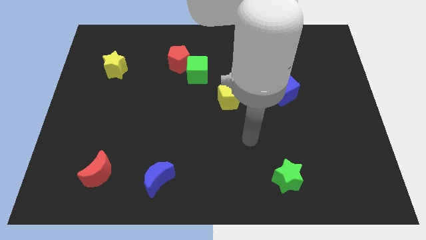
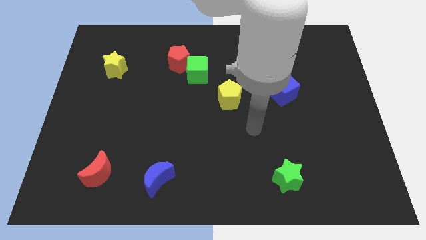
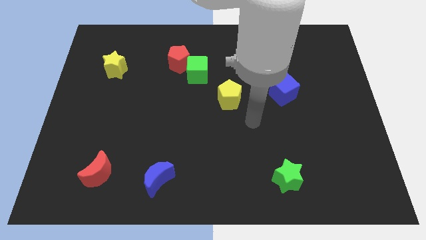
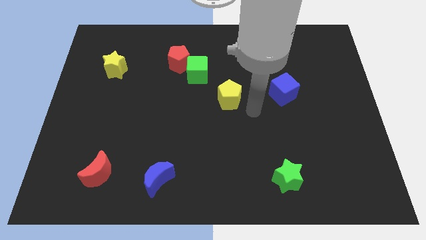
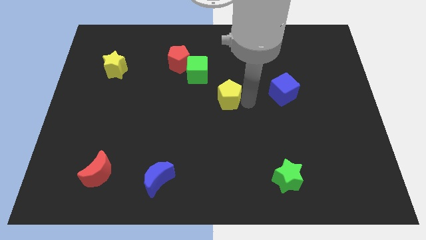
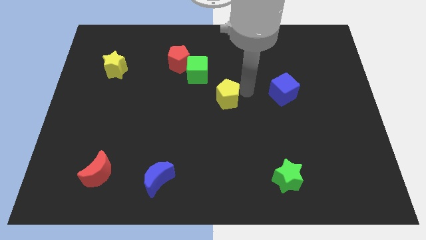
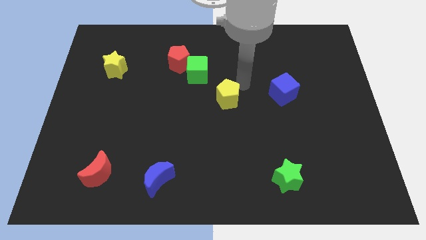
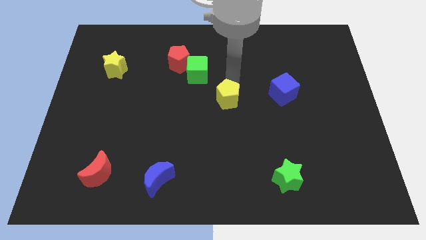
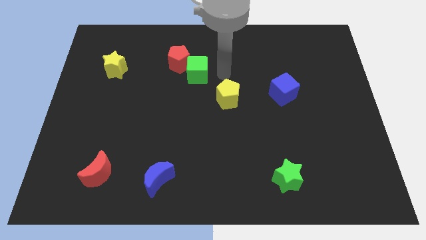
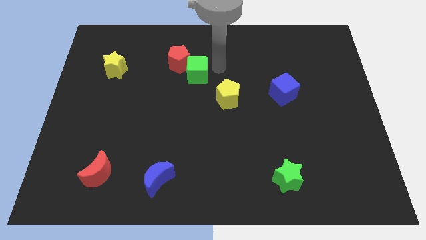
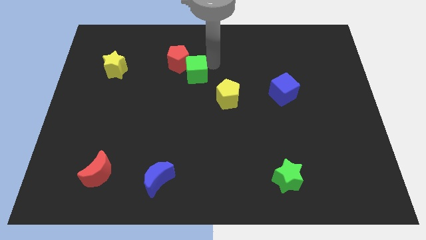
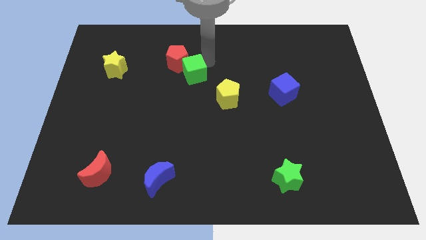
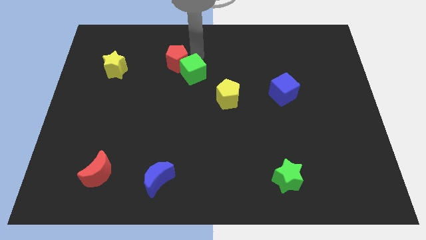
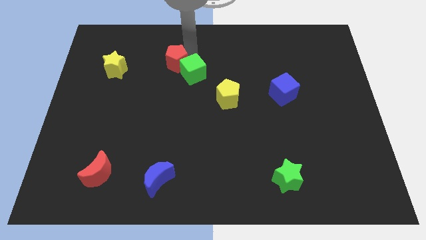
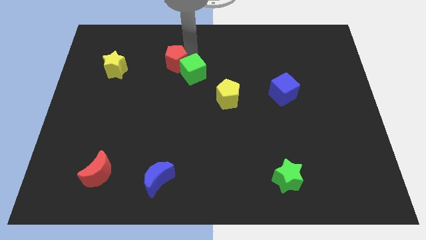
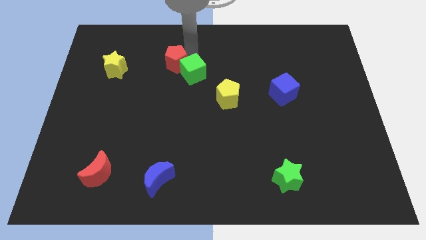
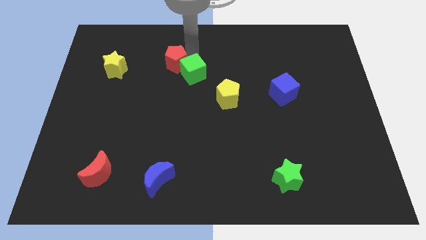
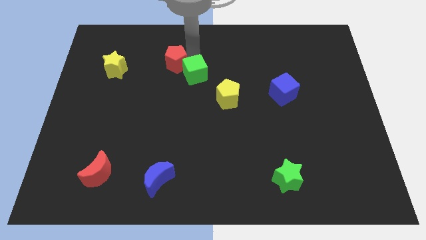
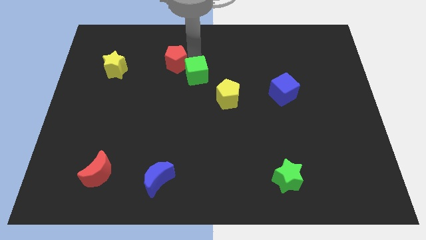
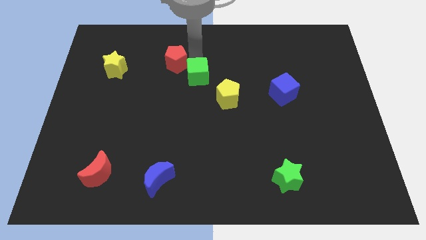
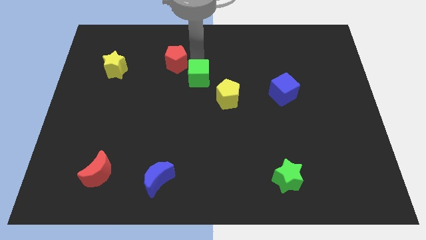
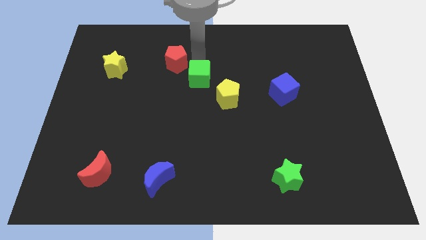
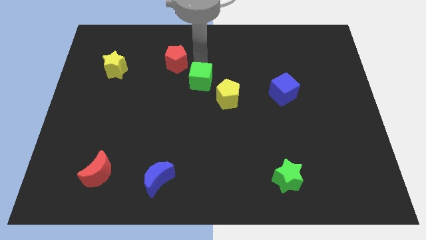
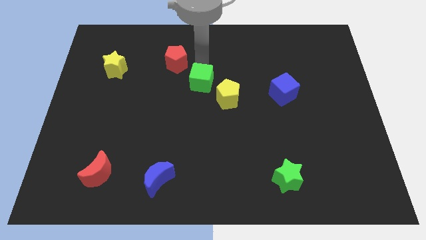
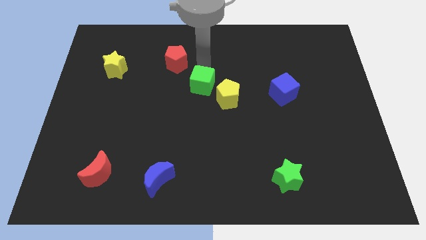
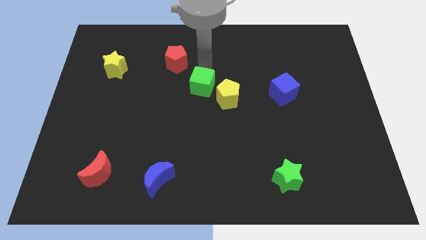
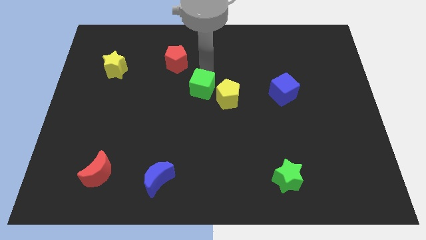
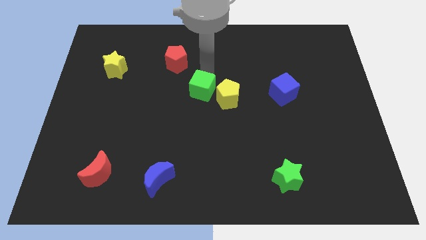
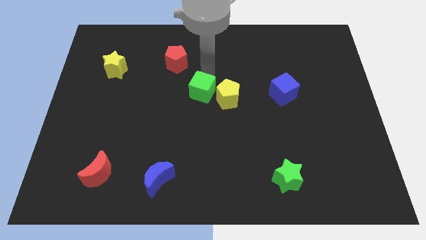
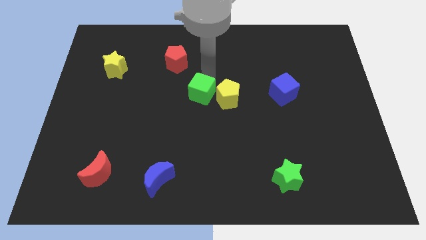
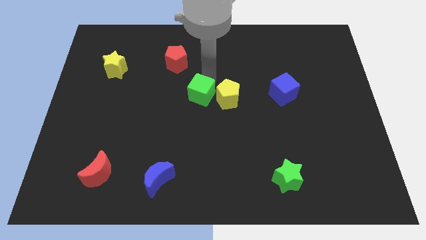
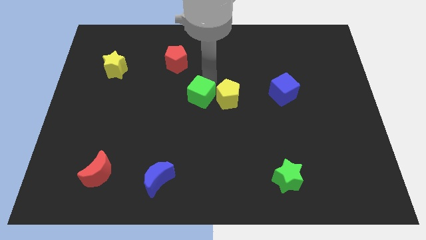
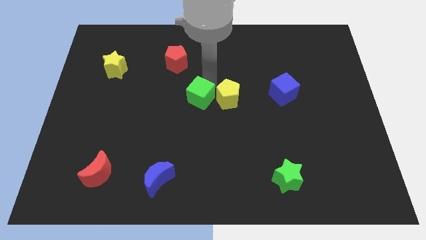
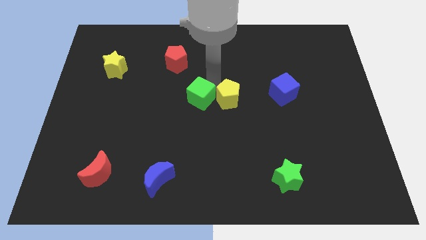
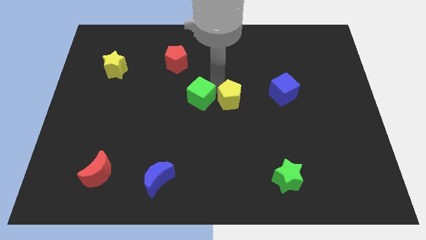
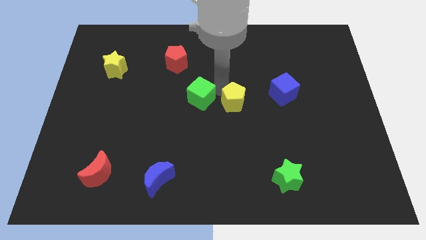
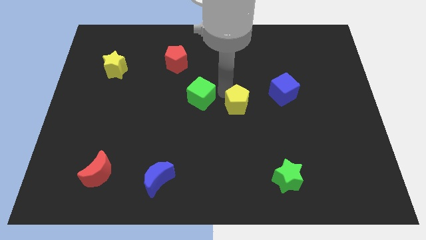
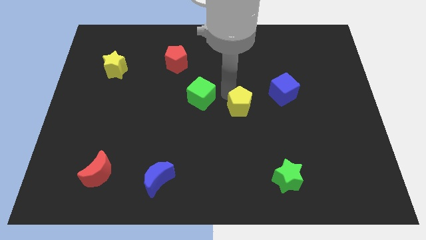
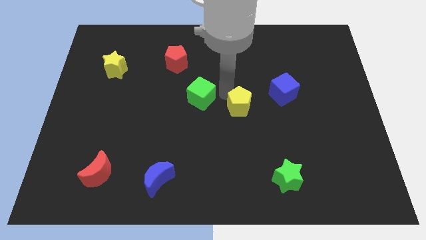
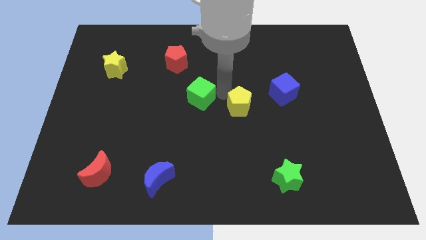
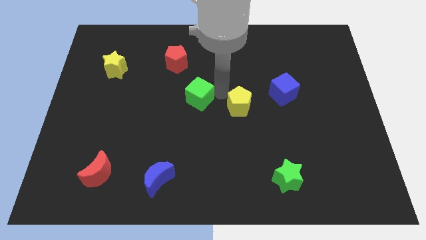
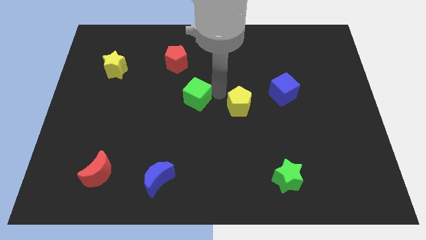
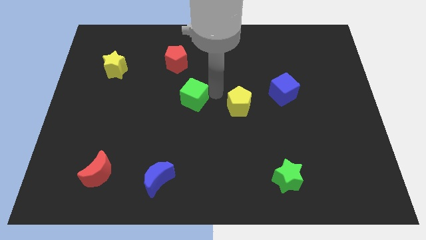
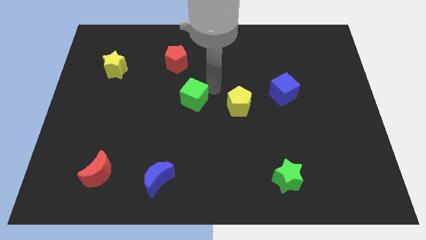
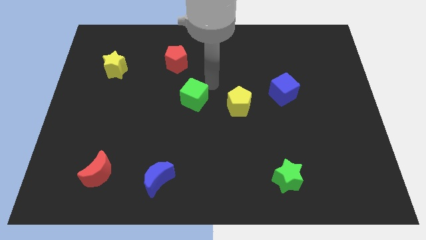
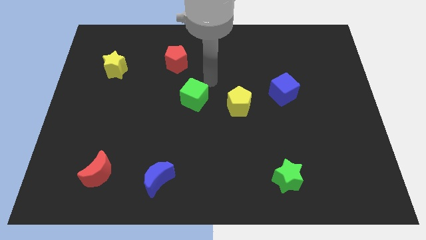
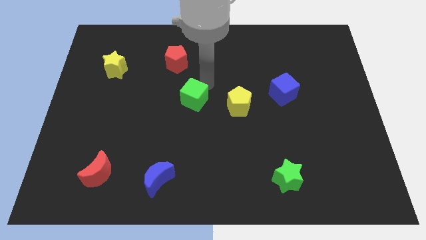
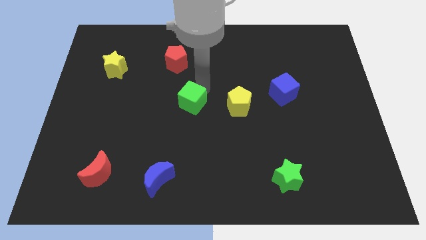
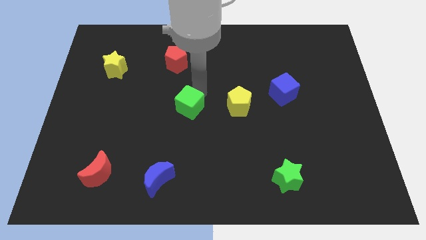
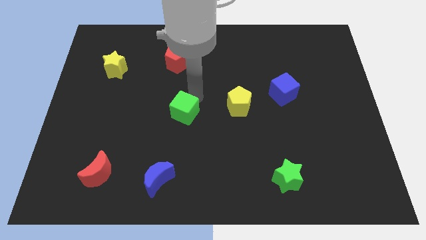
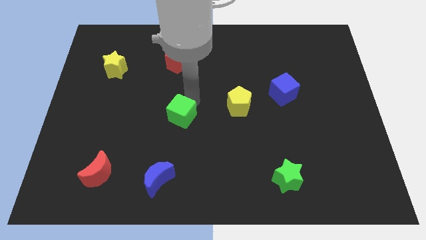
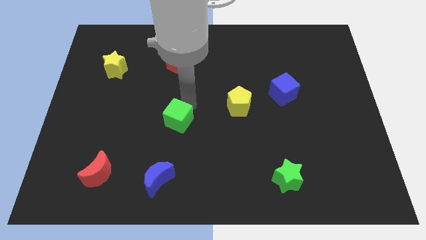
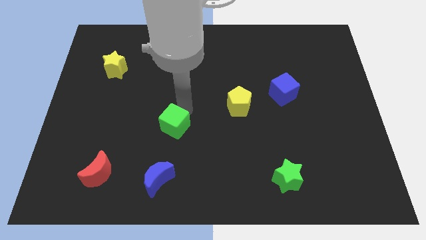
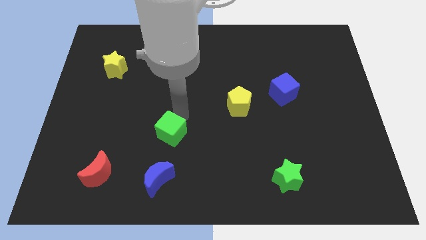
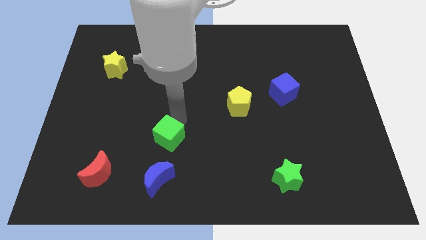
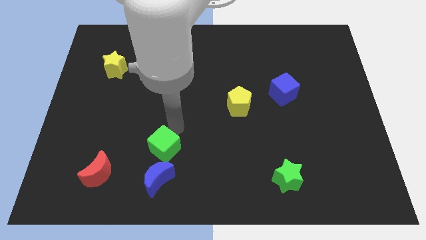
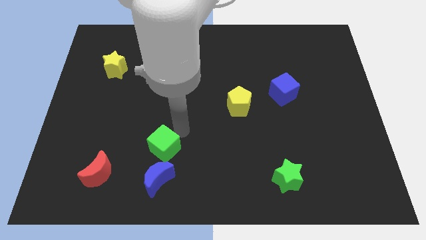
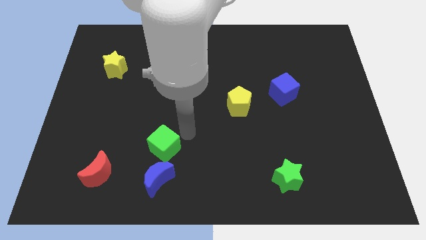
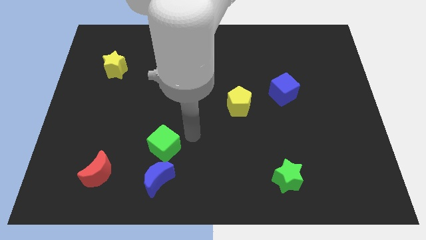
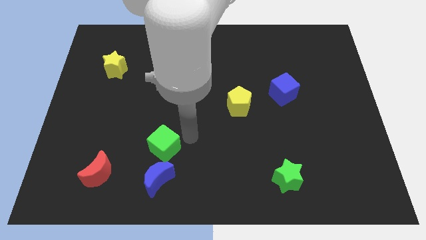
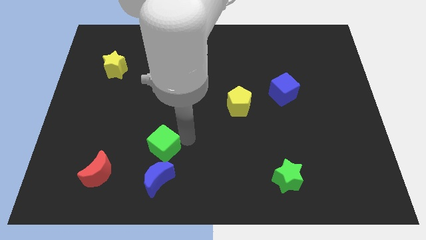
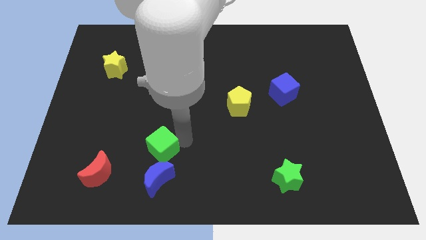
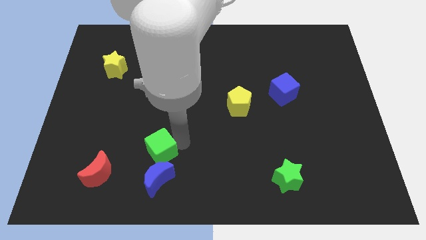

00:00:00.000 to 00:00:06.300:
move the green cube diagonally up and to the left of the blue moon

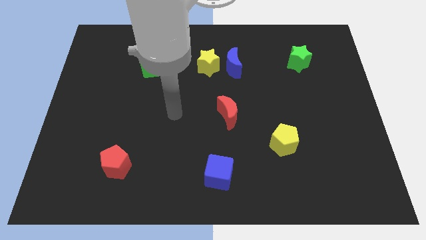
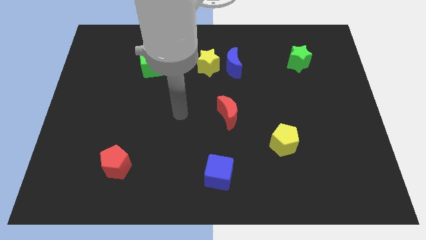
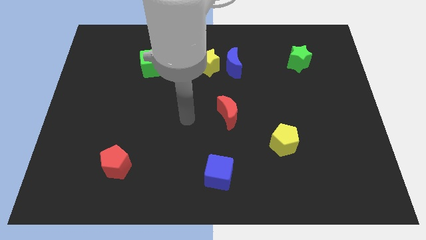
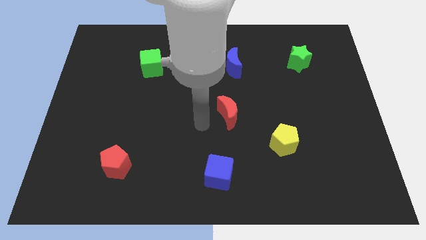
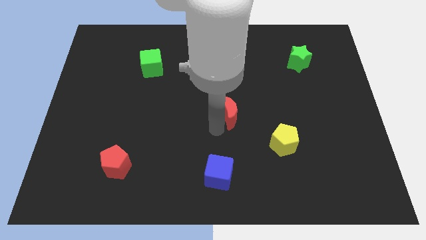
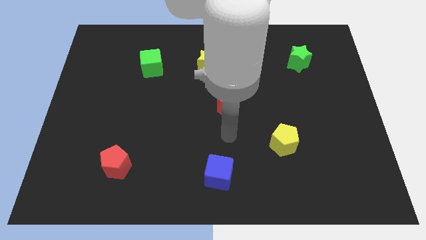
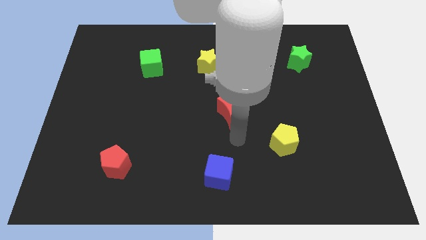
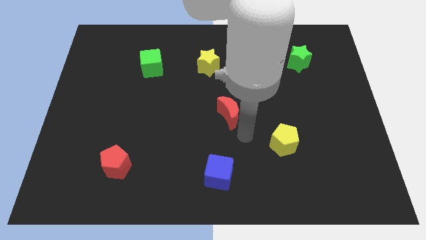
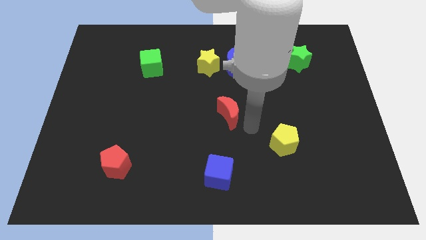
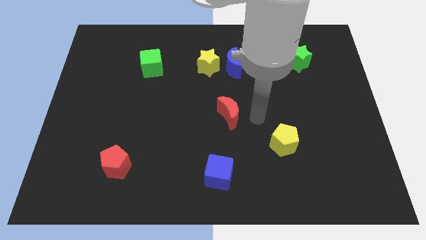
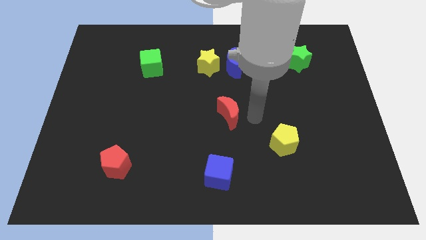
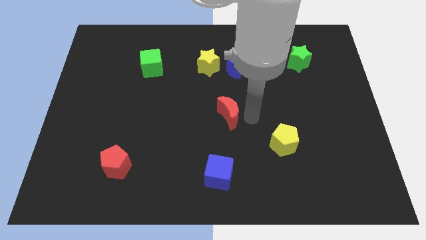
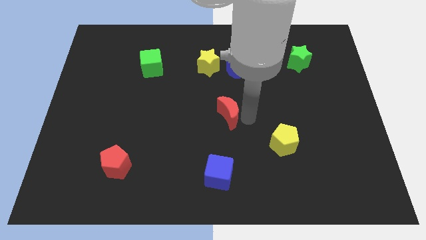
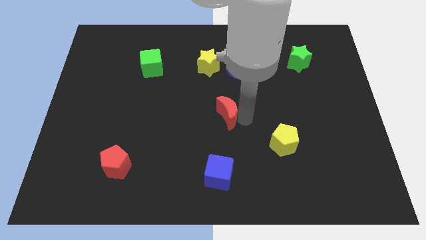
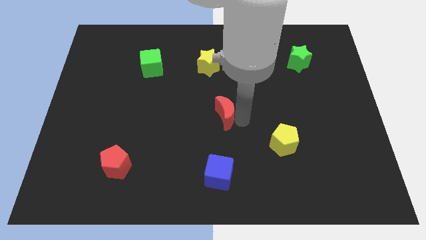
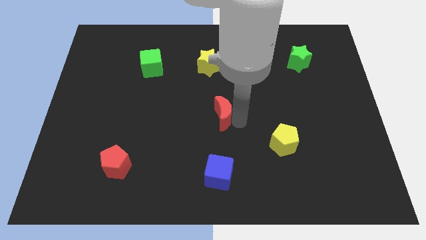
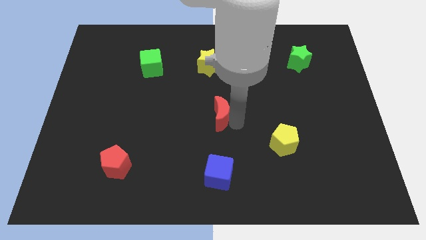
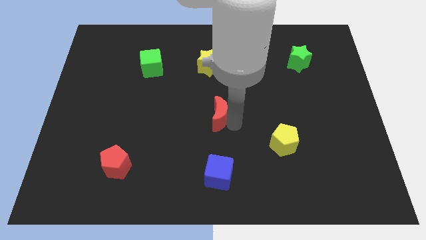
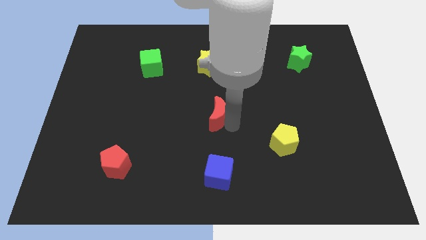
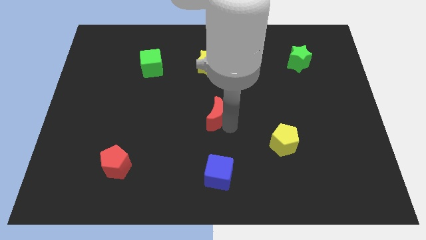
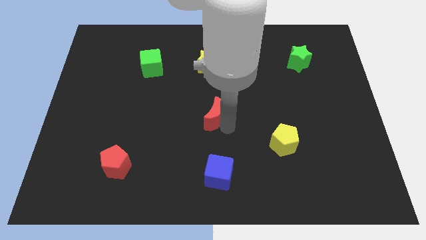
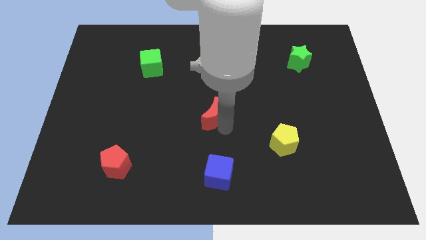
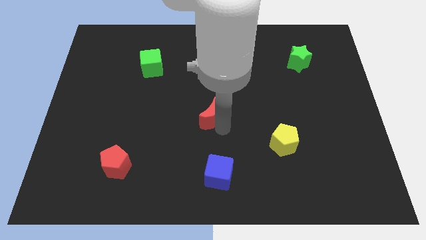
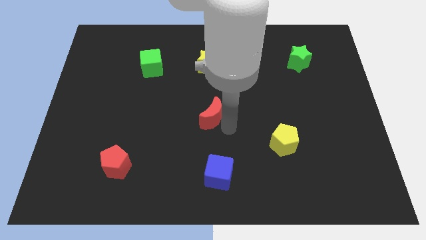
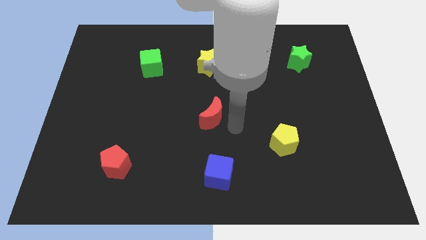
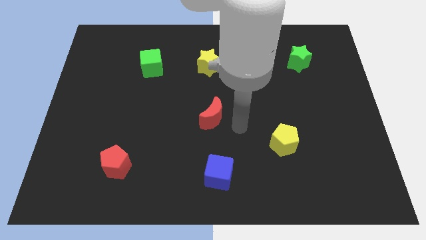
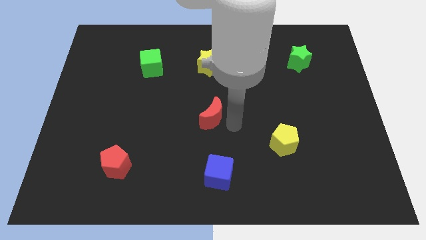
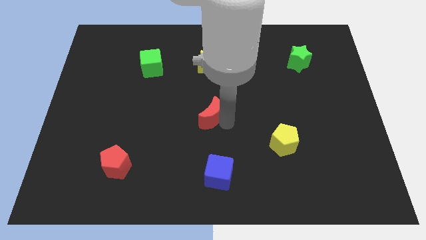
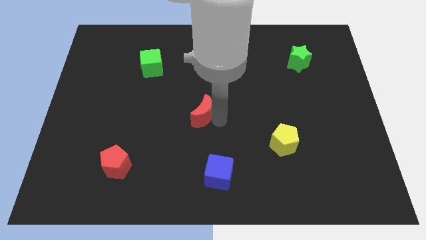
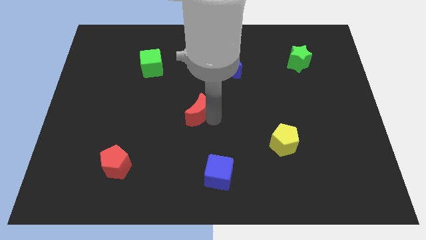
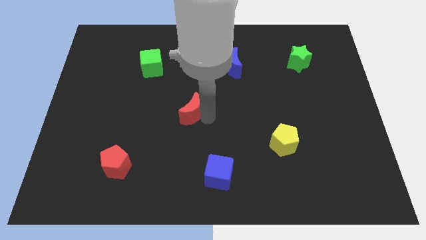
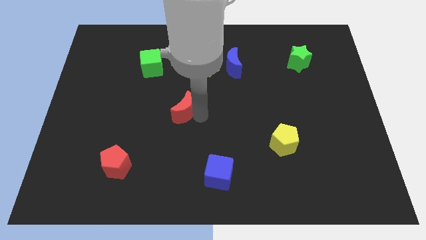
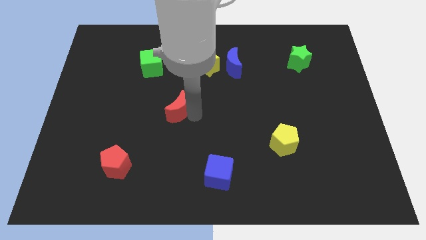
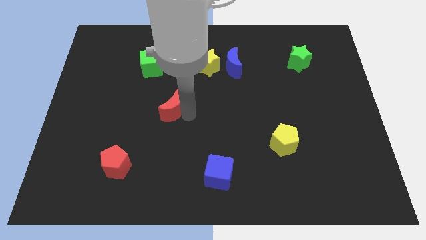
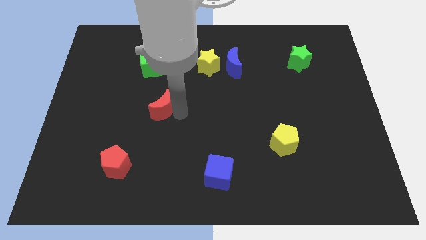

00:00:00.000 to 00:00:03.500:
slide the red moon below the green cube
